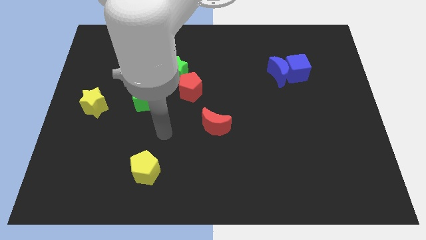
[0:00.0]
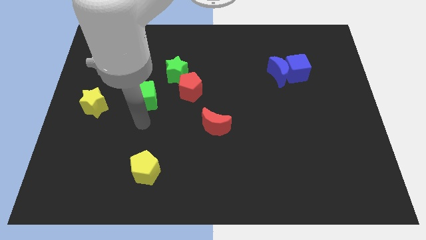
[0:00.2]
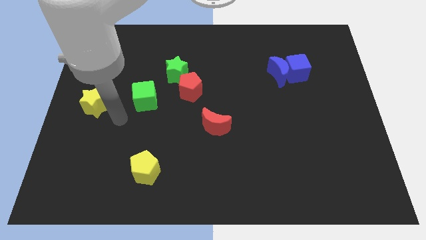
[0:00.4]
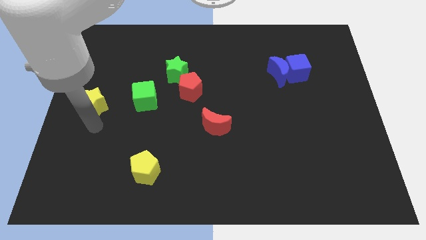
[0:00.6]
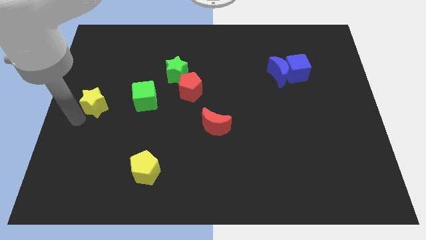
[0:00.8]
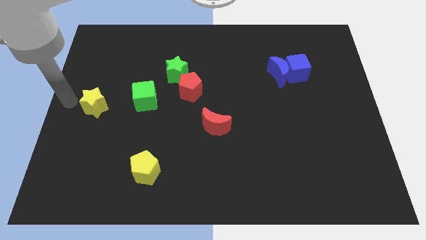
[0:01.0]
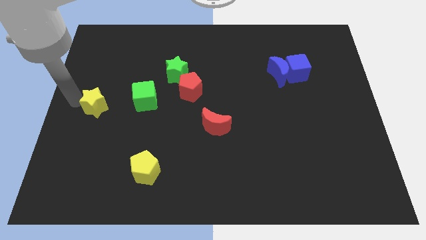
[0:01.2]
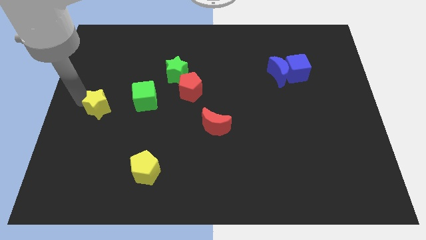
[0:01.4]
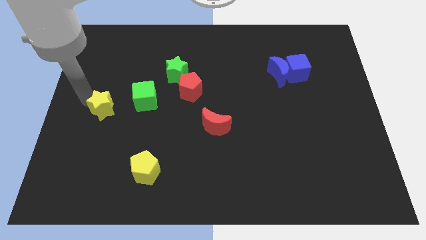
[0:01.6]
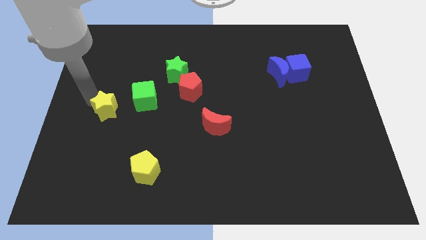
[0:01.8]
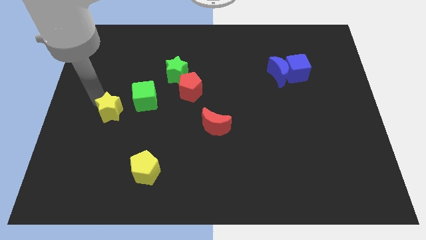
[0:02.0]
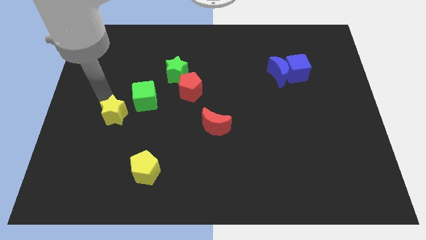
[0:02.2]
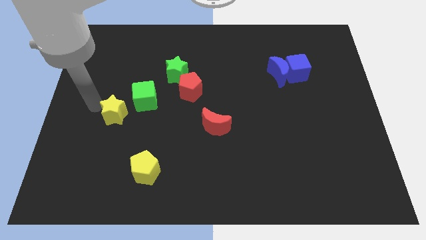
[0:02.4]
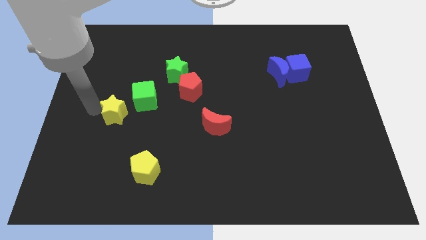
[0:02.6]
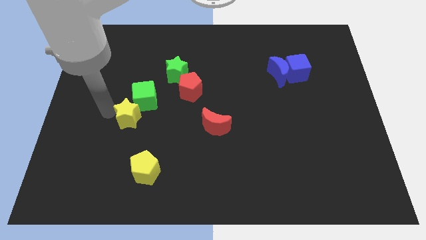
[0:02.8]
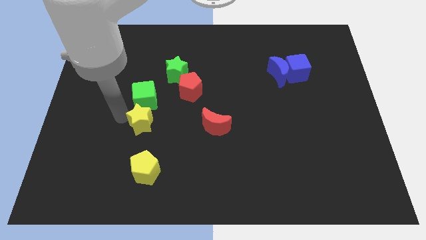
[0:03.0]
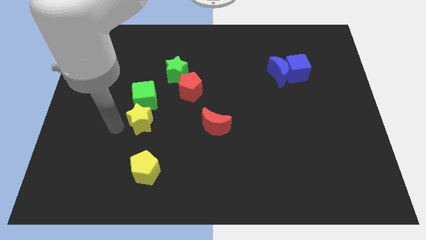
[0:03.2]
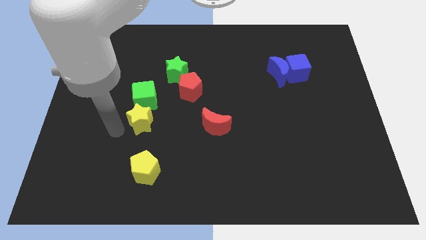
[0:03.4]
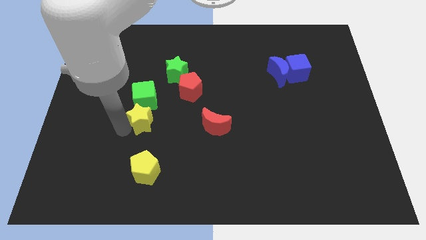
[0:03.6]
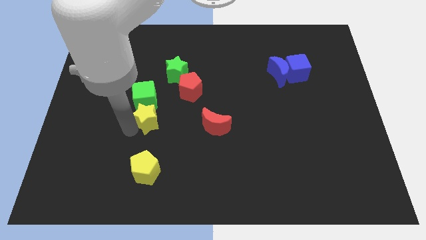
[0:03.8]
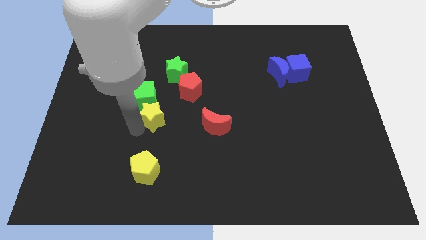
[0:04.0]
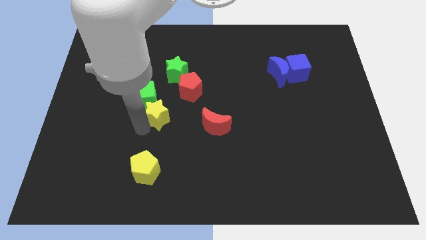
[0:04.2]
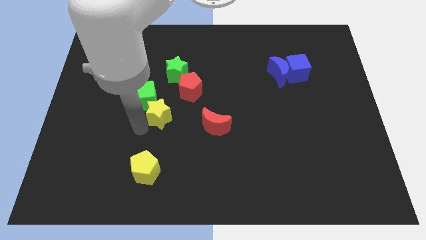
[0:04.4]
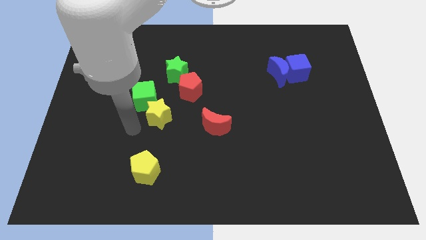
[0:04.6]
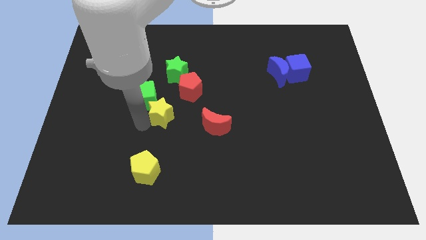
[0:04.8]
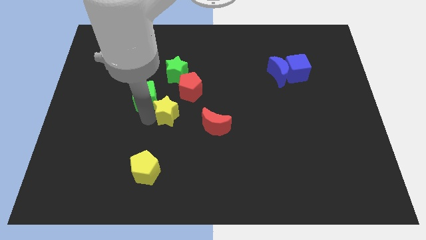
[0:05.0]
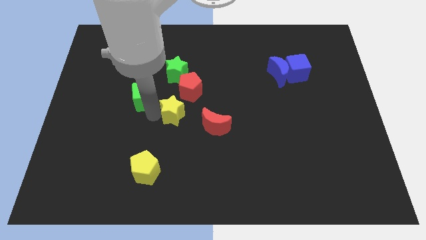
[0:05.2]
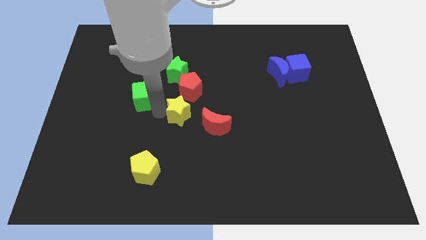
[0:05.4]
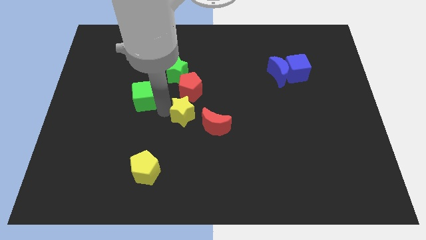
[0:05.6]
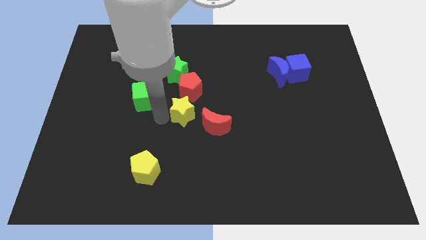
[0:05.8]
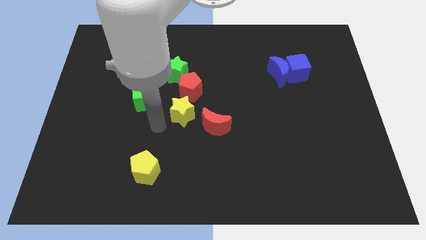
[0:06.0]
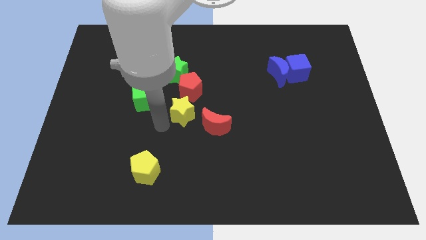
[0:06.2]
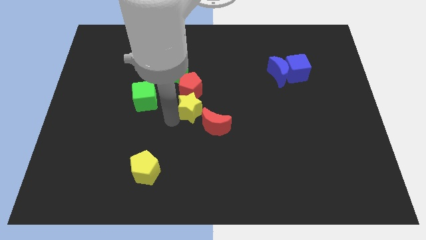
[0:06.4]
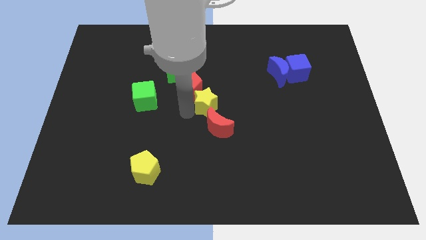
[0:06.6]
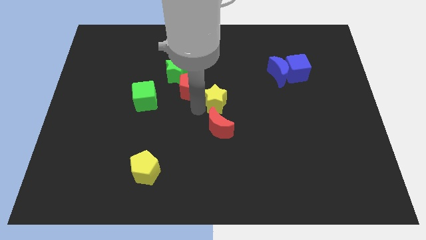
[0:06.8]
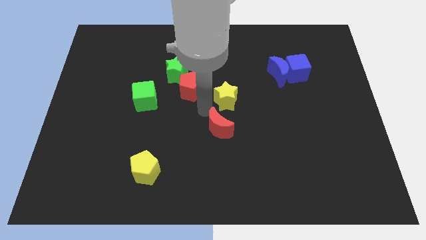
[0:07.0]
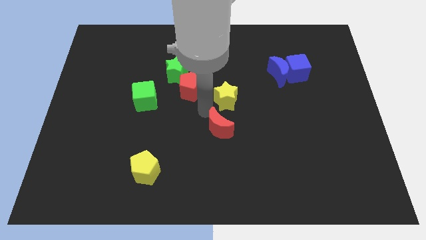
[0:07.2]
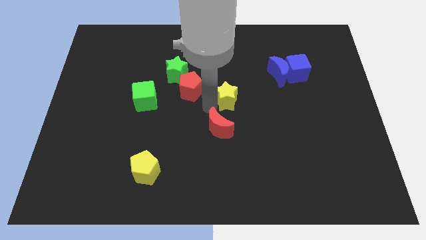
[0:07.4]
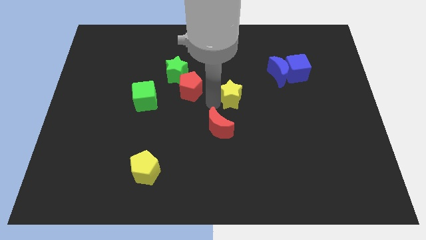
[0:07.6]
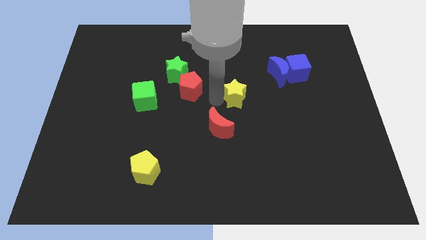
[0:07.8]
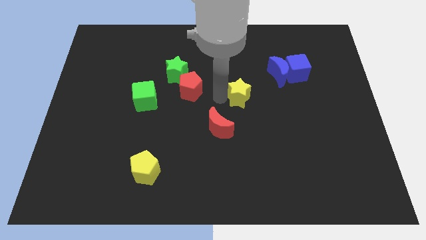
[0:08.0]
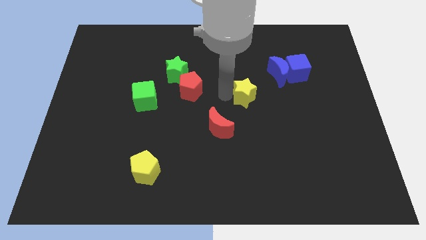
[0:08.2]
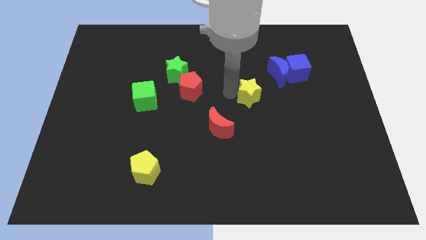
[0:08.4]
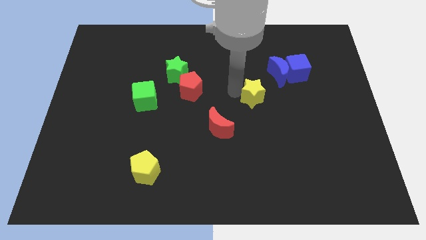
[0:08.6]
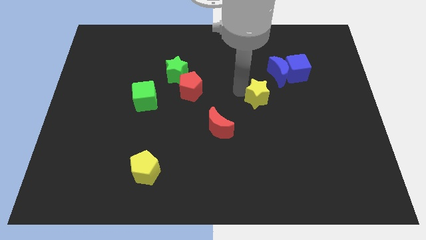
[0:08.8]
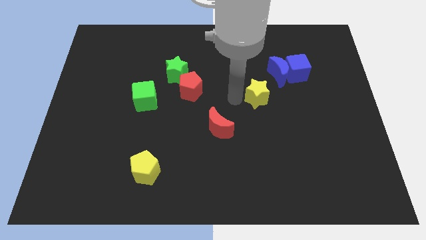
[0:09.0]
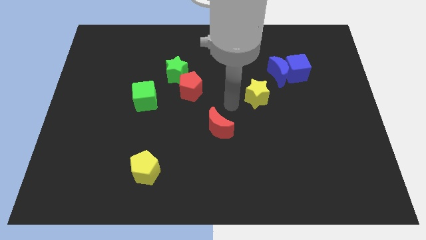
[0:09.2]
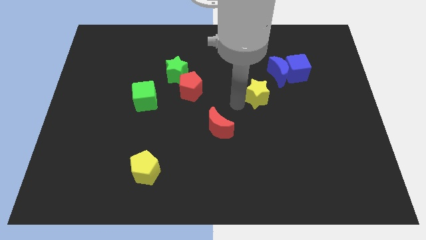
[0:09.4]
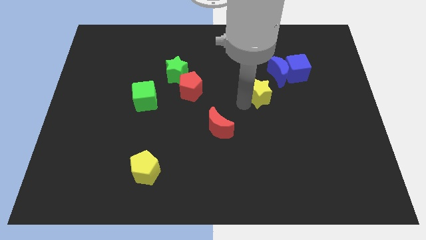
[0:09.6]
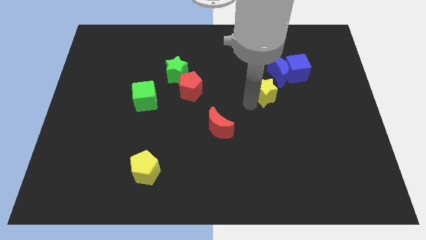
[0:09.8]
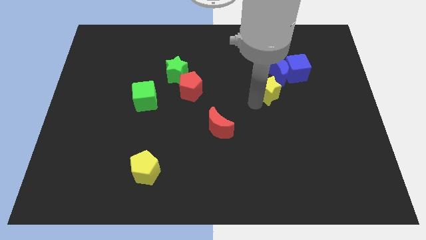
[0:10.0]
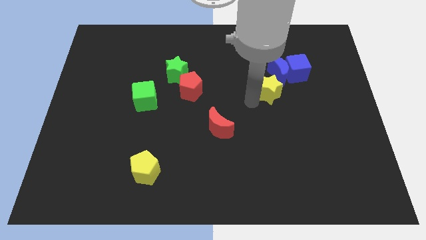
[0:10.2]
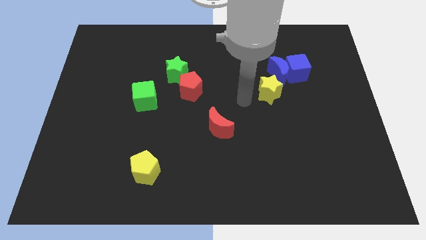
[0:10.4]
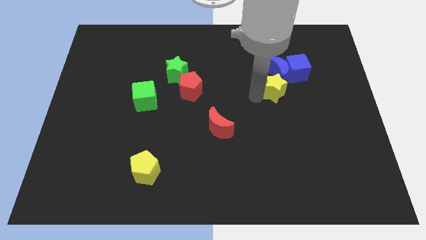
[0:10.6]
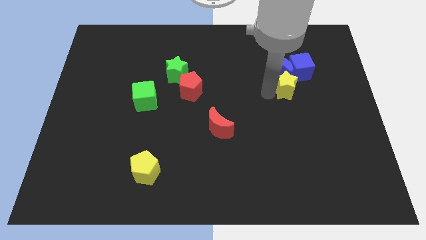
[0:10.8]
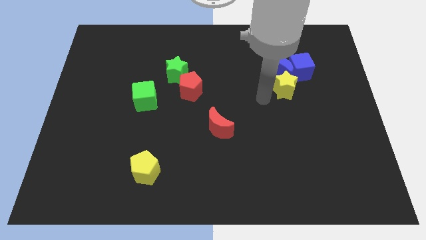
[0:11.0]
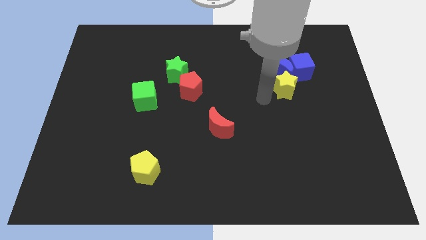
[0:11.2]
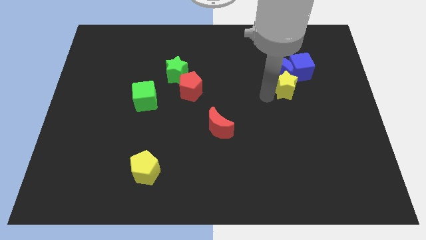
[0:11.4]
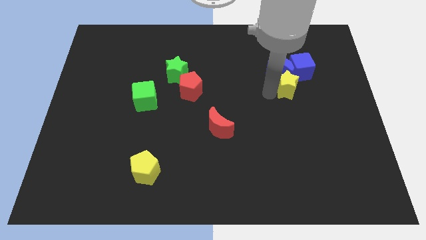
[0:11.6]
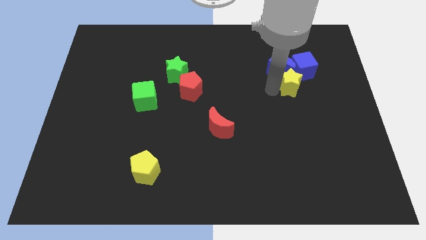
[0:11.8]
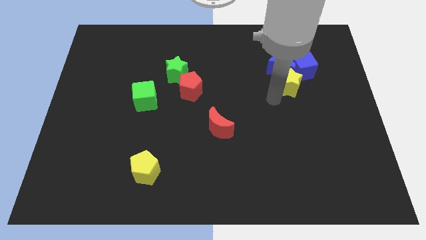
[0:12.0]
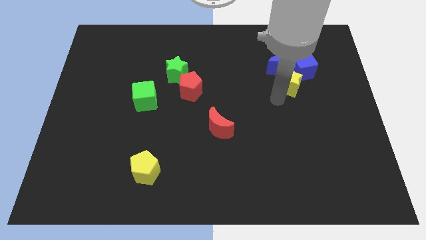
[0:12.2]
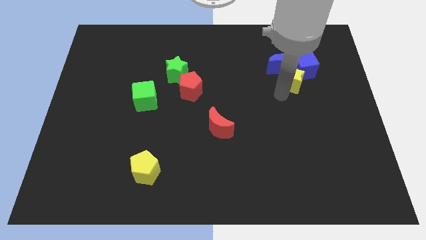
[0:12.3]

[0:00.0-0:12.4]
slide the yellow star towards the blue cube

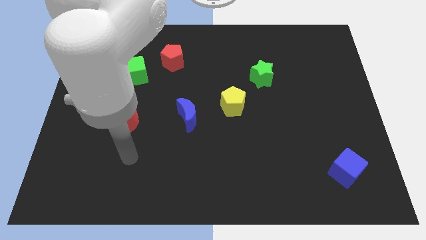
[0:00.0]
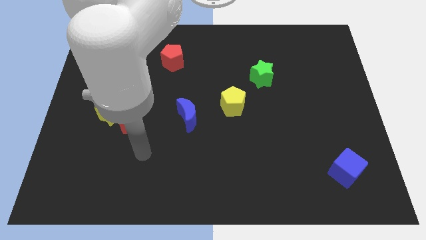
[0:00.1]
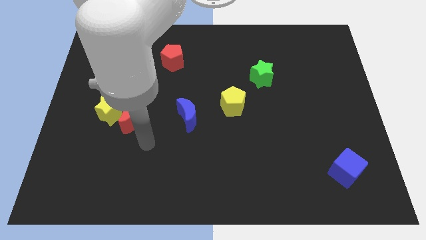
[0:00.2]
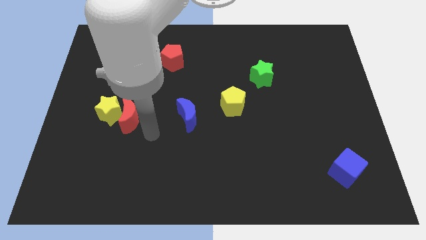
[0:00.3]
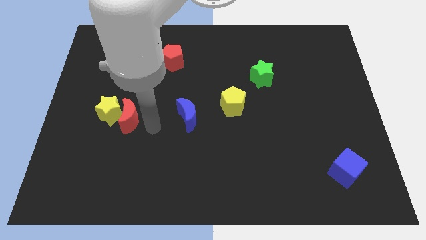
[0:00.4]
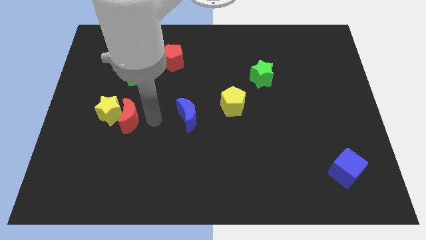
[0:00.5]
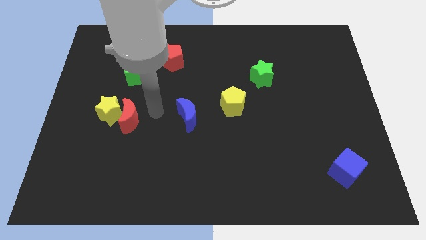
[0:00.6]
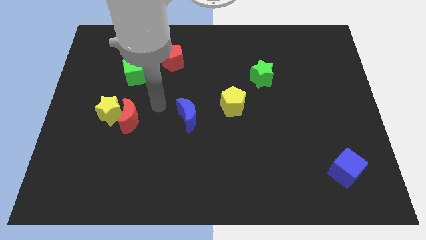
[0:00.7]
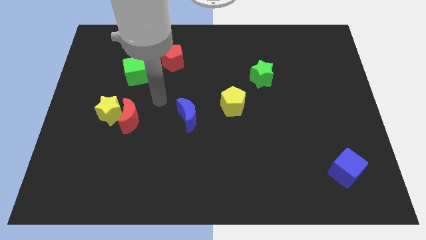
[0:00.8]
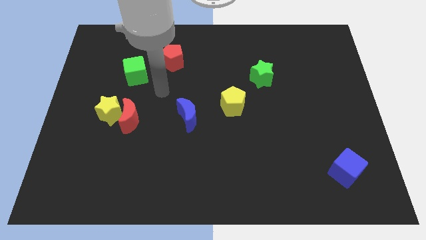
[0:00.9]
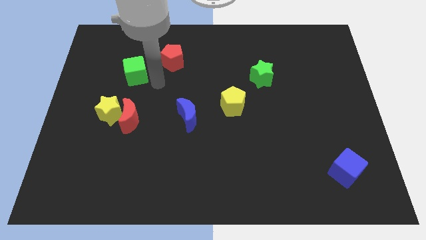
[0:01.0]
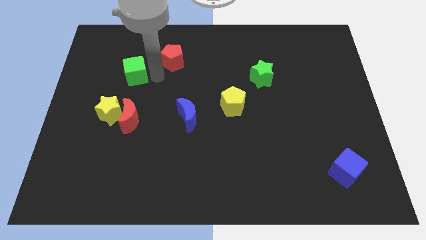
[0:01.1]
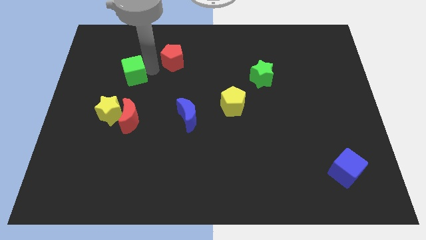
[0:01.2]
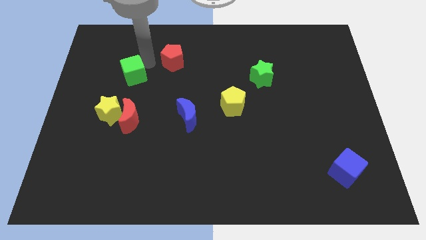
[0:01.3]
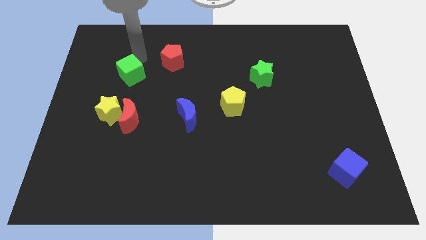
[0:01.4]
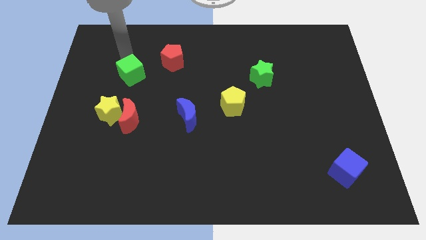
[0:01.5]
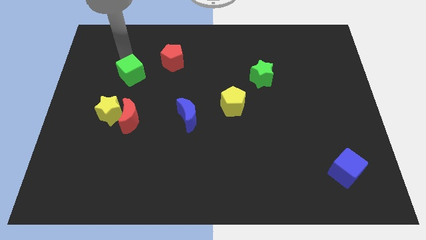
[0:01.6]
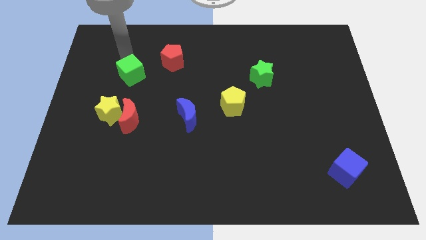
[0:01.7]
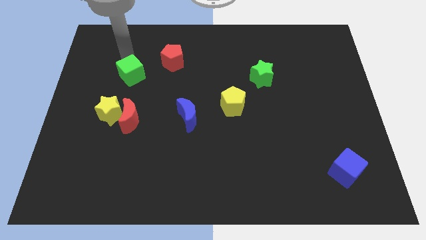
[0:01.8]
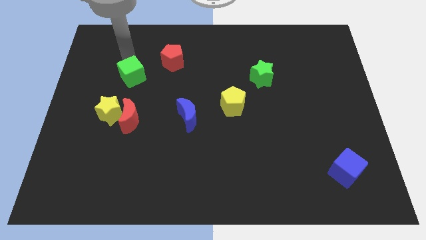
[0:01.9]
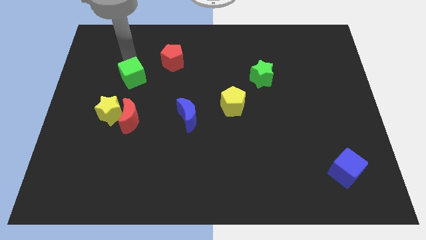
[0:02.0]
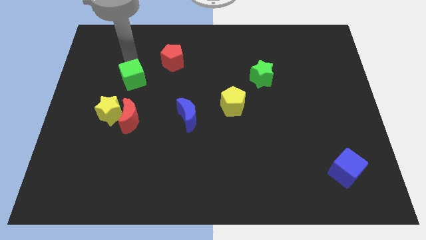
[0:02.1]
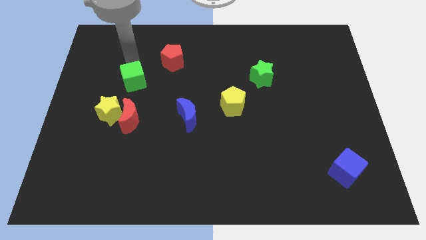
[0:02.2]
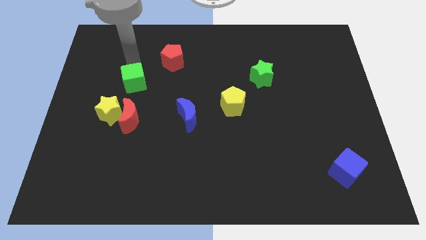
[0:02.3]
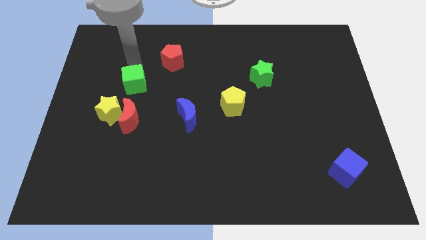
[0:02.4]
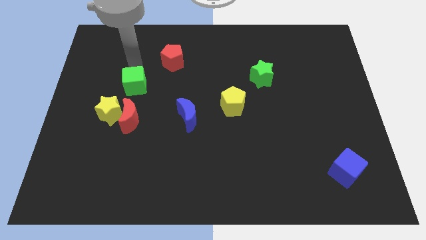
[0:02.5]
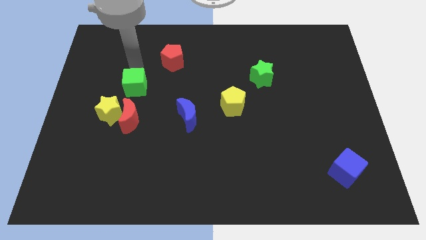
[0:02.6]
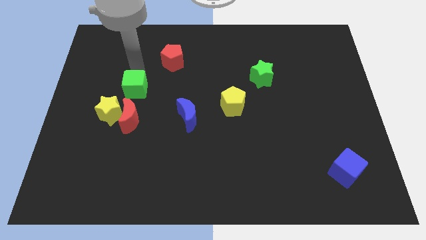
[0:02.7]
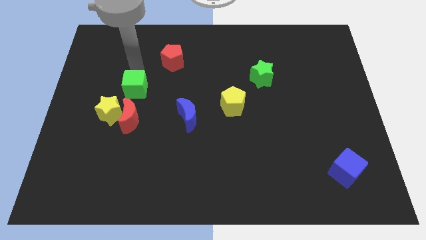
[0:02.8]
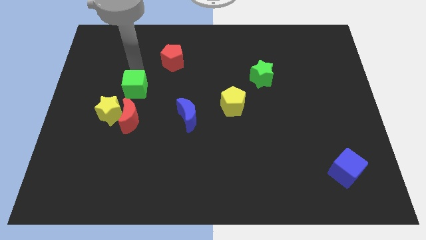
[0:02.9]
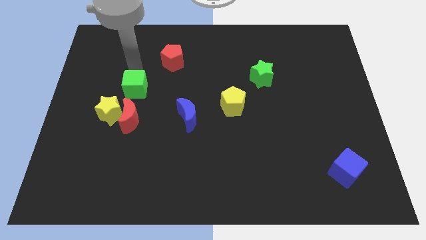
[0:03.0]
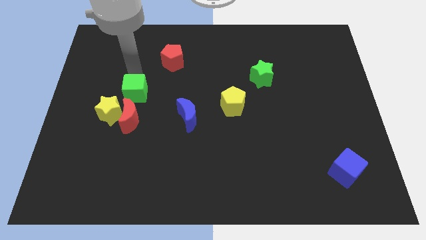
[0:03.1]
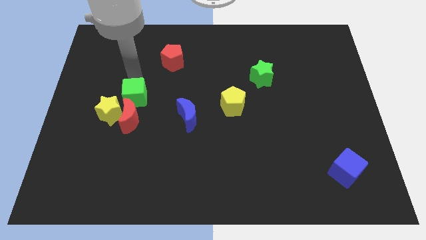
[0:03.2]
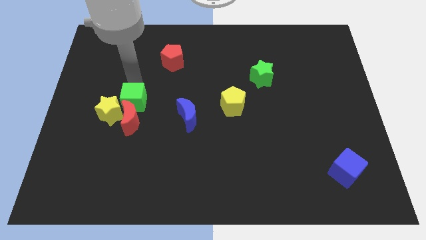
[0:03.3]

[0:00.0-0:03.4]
slide the green cube next to the red moon
